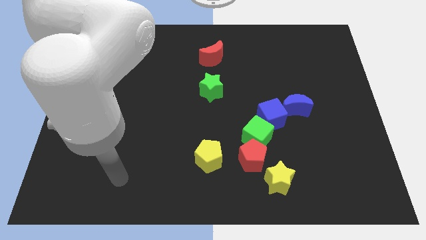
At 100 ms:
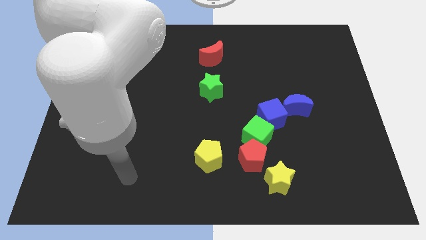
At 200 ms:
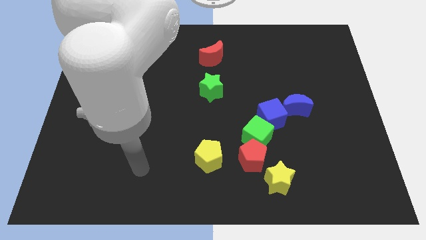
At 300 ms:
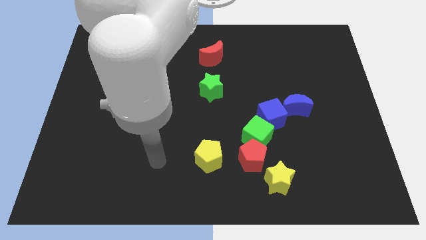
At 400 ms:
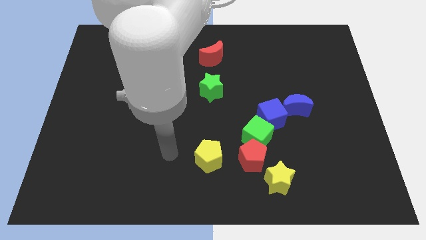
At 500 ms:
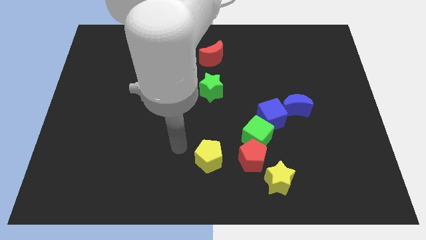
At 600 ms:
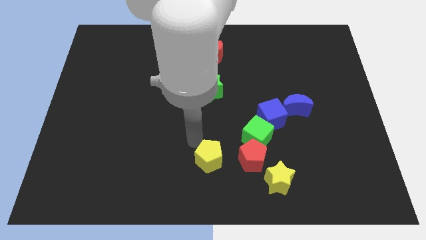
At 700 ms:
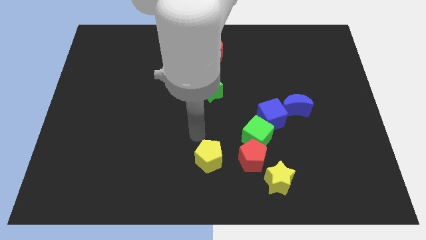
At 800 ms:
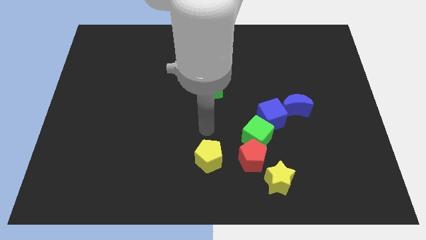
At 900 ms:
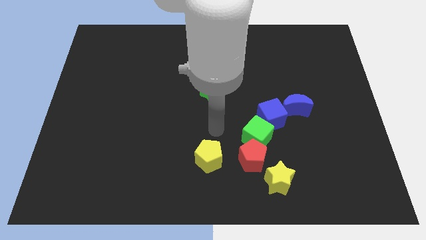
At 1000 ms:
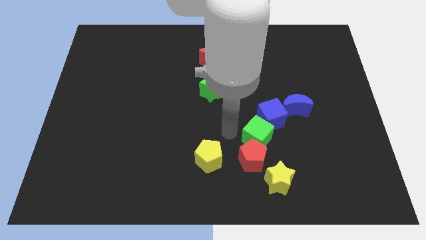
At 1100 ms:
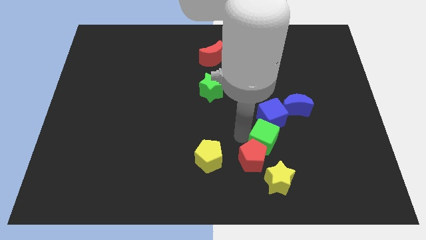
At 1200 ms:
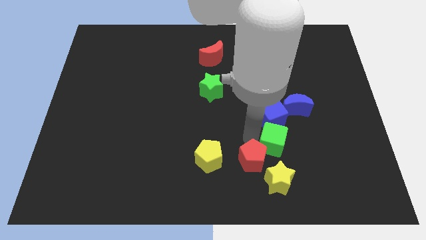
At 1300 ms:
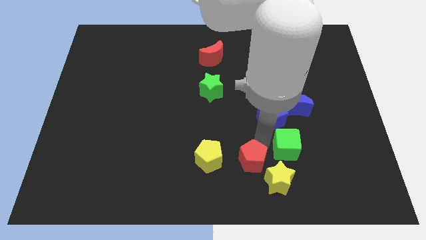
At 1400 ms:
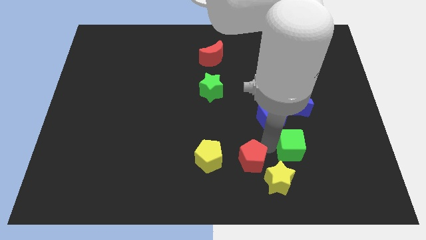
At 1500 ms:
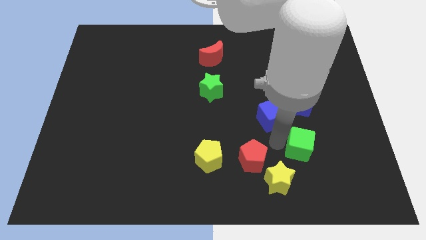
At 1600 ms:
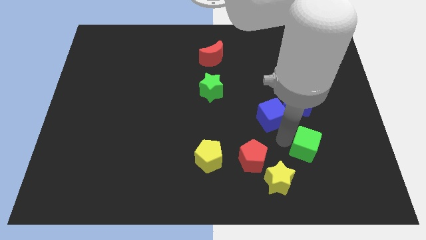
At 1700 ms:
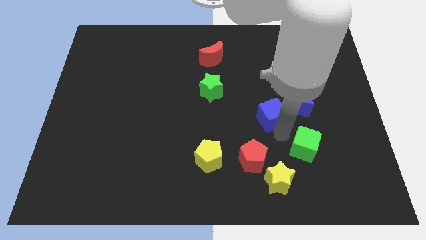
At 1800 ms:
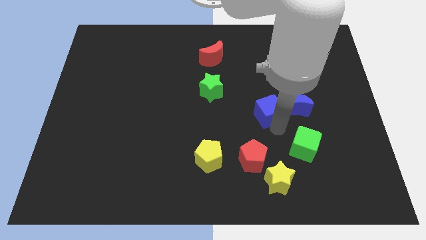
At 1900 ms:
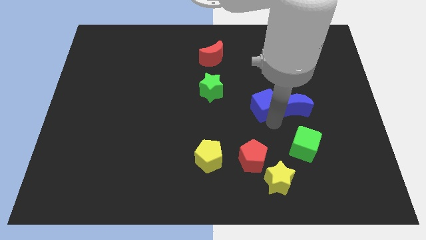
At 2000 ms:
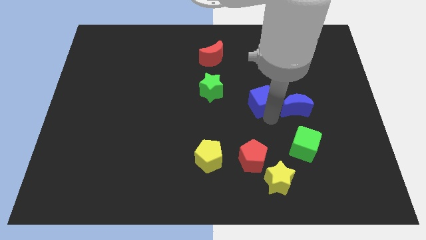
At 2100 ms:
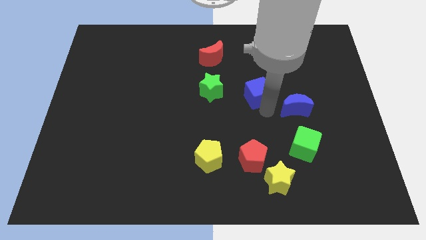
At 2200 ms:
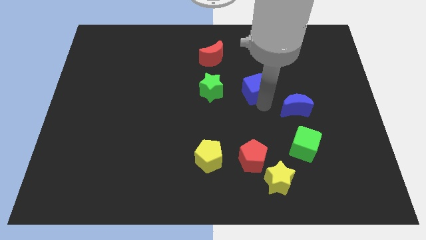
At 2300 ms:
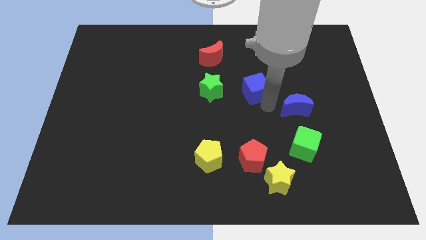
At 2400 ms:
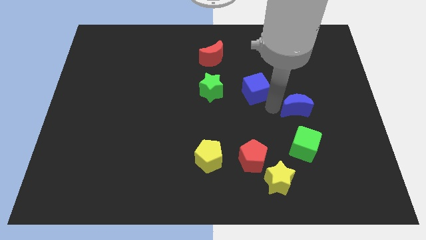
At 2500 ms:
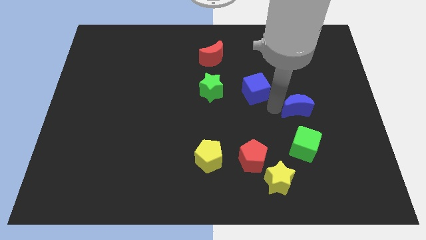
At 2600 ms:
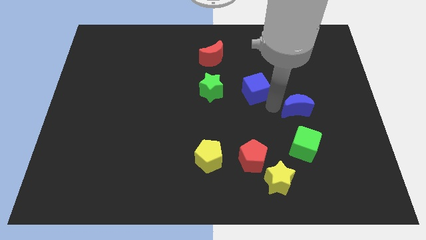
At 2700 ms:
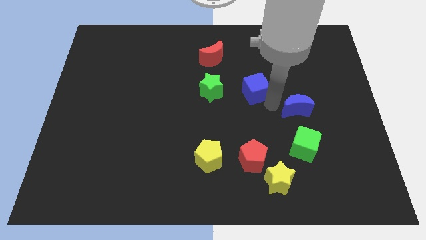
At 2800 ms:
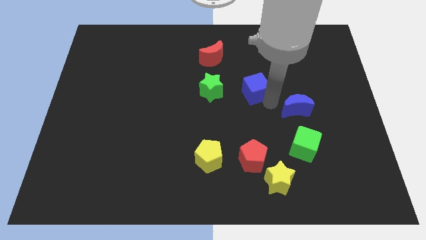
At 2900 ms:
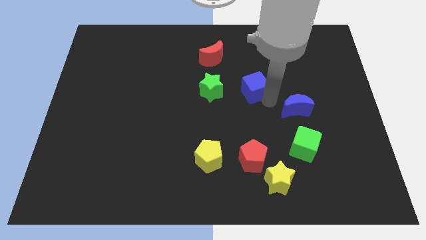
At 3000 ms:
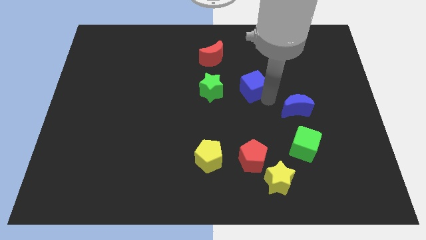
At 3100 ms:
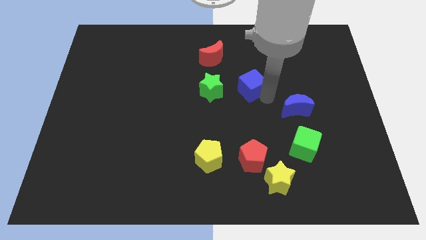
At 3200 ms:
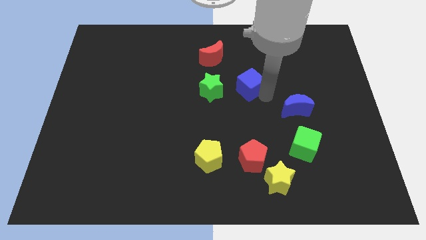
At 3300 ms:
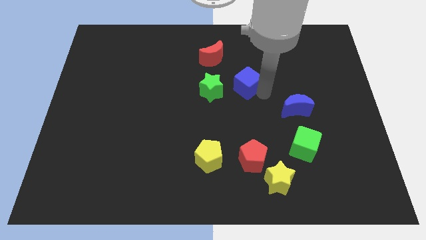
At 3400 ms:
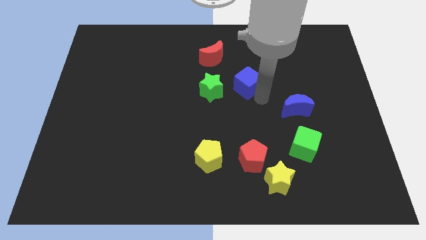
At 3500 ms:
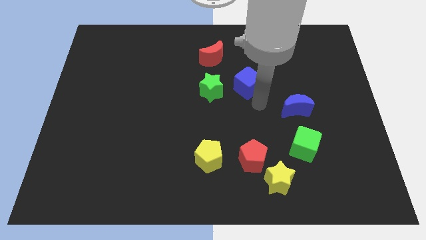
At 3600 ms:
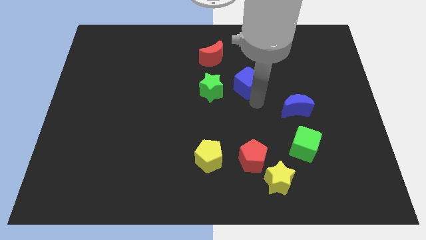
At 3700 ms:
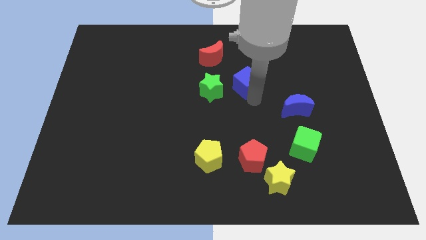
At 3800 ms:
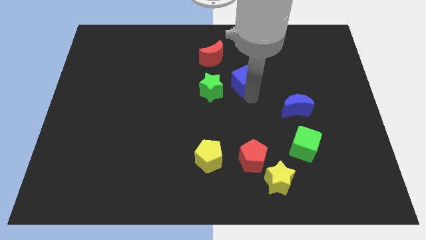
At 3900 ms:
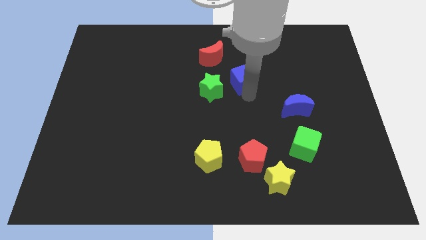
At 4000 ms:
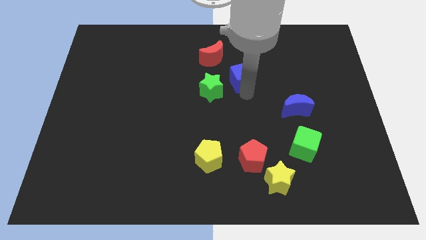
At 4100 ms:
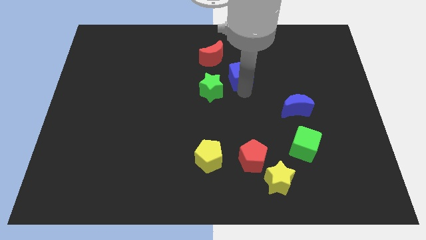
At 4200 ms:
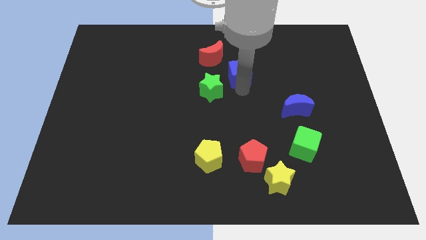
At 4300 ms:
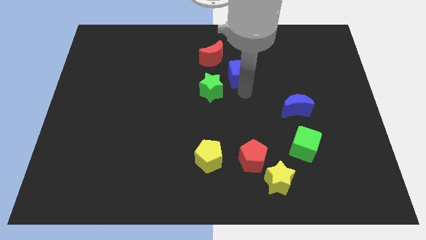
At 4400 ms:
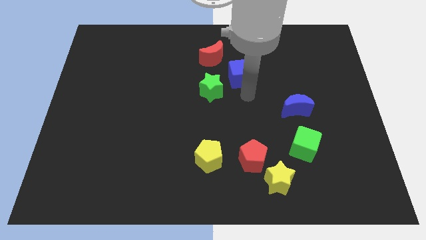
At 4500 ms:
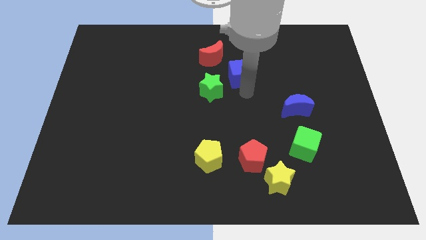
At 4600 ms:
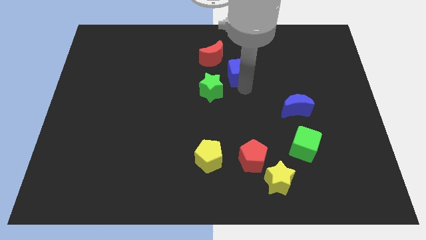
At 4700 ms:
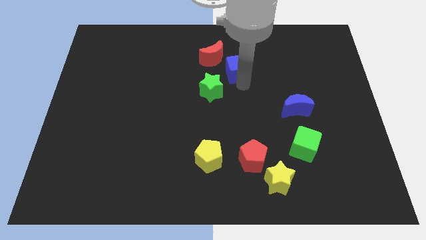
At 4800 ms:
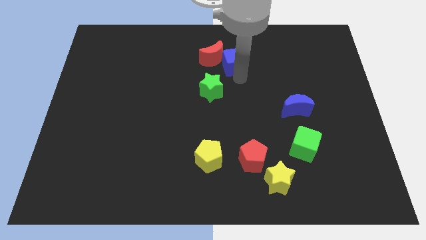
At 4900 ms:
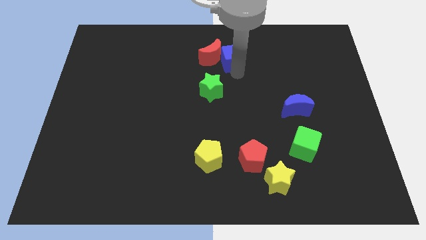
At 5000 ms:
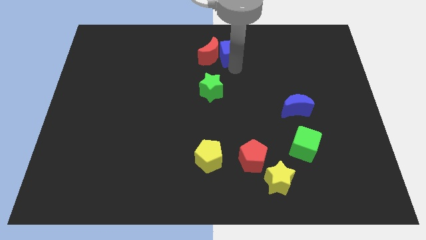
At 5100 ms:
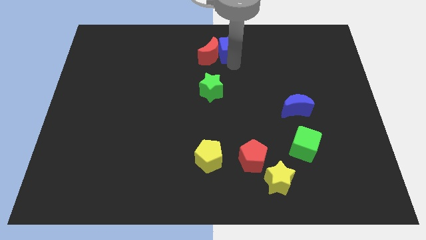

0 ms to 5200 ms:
push the blue cube to the top side

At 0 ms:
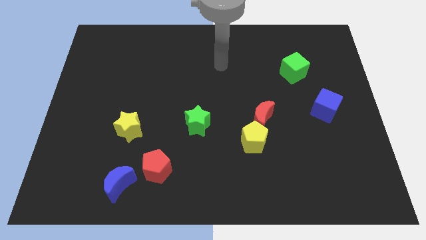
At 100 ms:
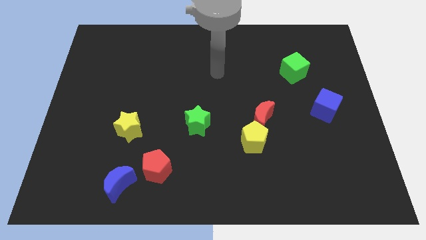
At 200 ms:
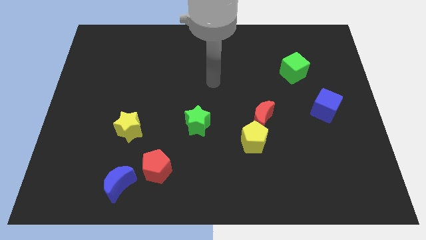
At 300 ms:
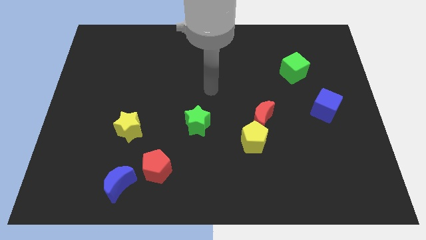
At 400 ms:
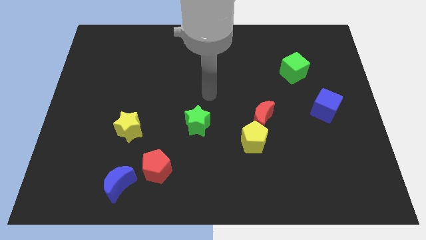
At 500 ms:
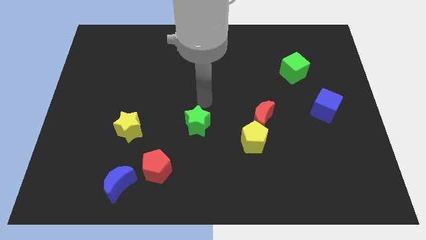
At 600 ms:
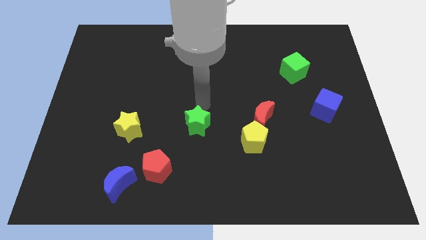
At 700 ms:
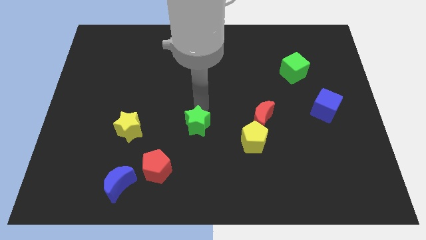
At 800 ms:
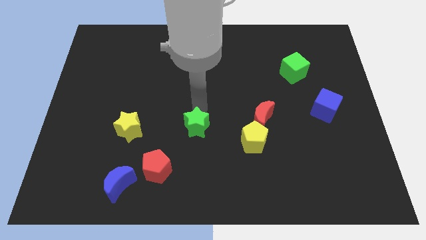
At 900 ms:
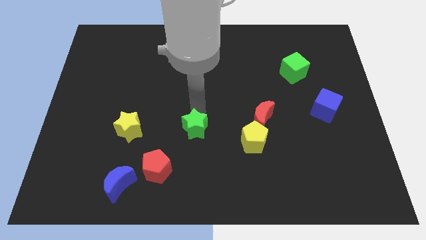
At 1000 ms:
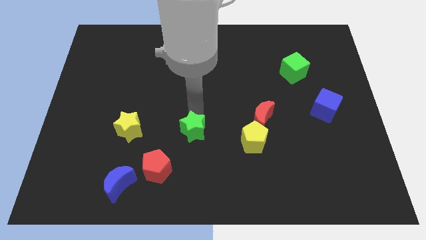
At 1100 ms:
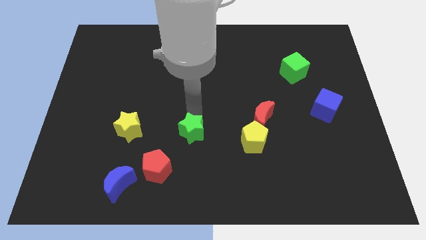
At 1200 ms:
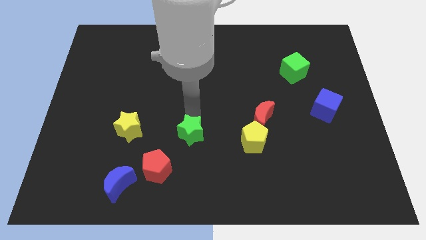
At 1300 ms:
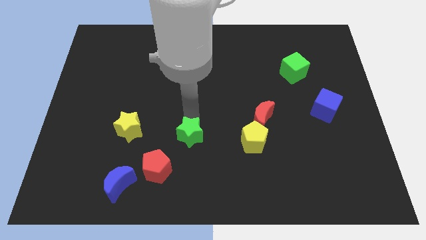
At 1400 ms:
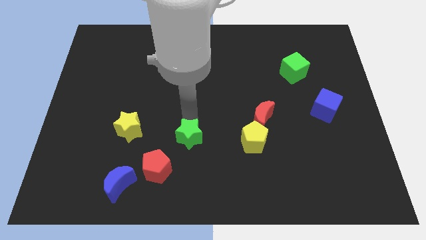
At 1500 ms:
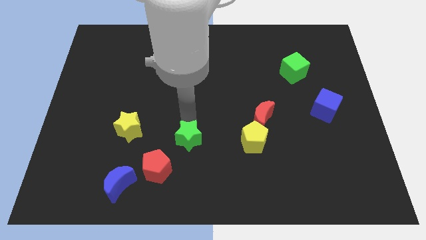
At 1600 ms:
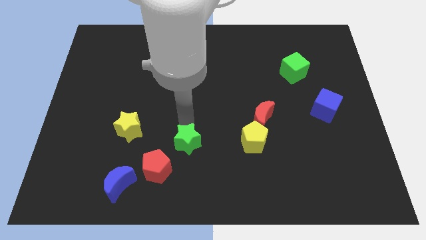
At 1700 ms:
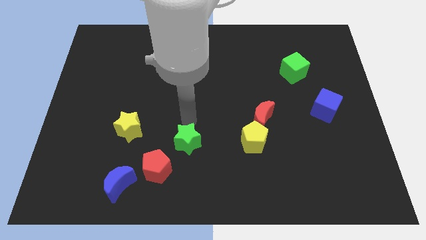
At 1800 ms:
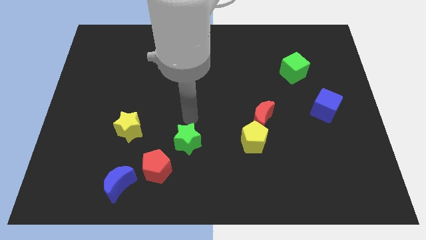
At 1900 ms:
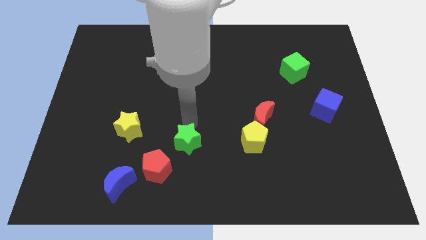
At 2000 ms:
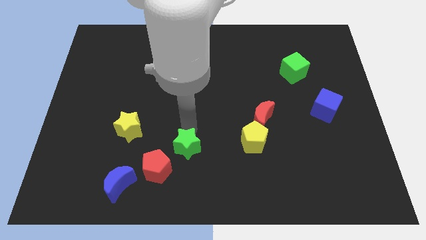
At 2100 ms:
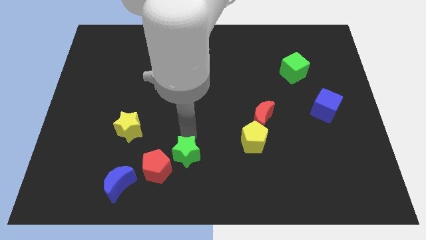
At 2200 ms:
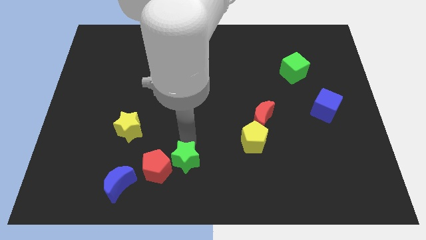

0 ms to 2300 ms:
slide the green star to the bottom
